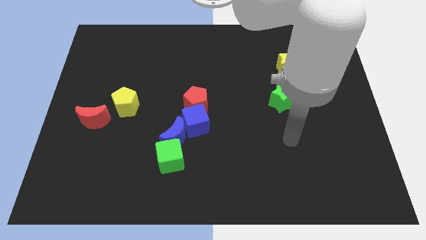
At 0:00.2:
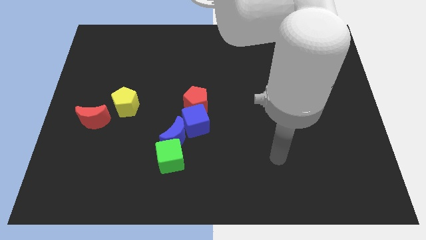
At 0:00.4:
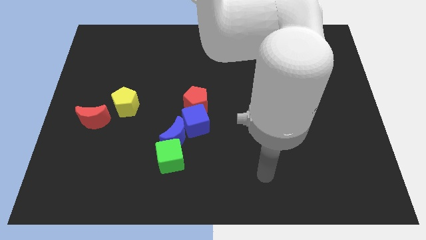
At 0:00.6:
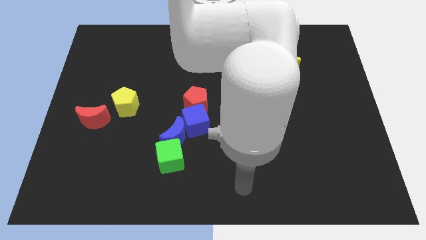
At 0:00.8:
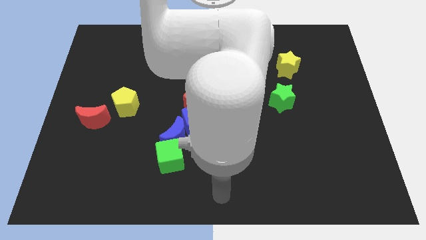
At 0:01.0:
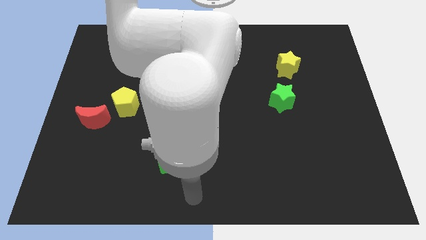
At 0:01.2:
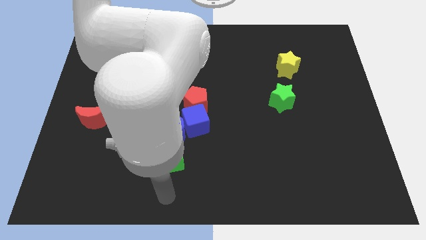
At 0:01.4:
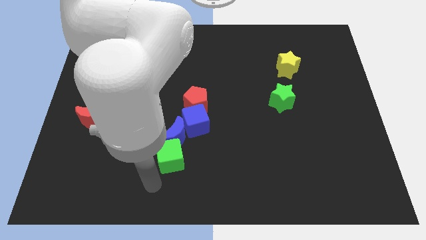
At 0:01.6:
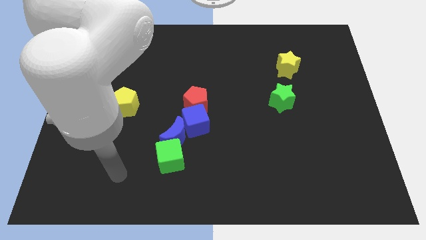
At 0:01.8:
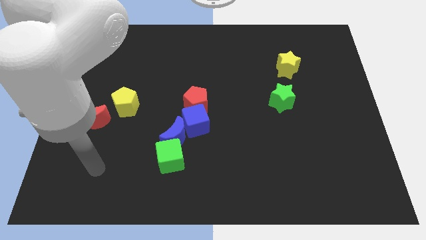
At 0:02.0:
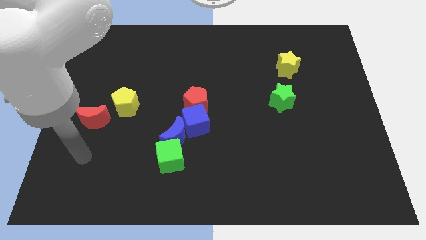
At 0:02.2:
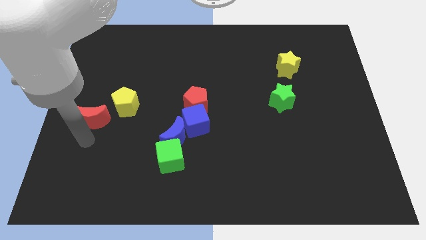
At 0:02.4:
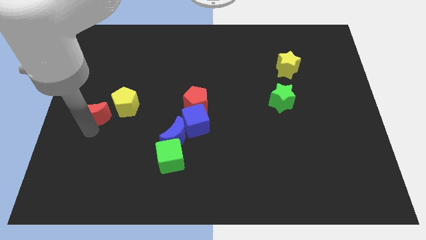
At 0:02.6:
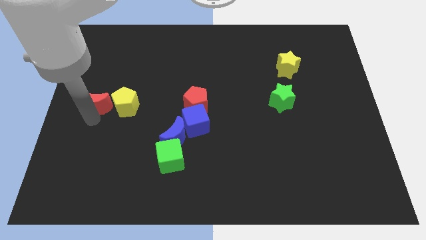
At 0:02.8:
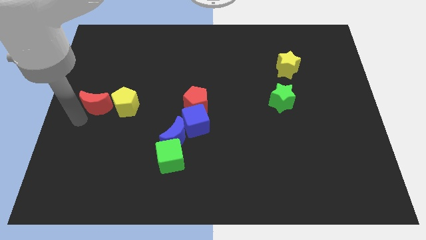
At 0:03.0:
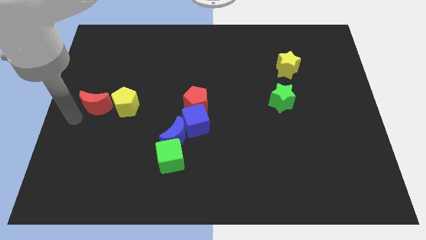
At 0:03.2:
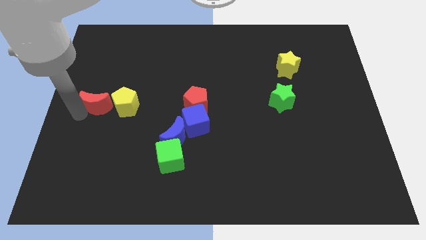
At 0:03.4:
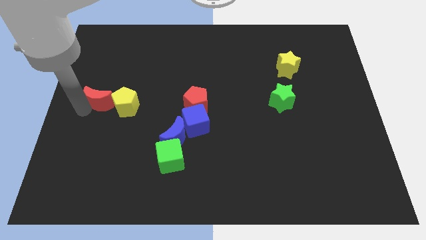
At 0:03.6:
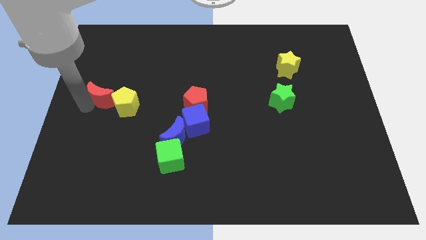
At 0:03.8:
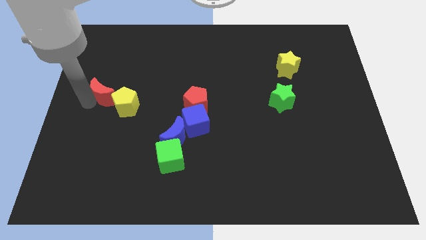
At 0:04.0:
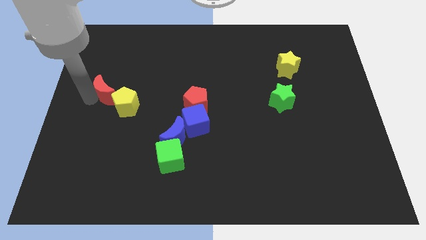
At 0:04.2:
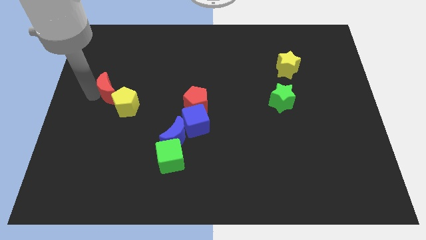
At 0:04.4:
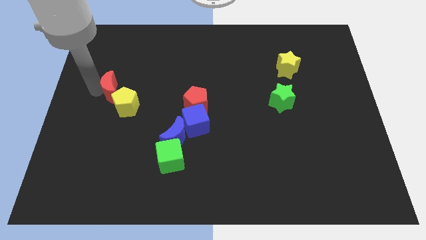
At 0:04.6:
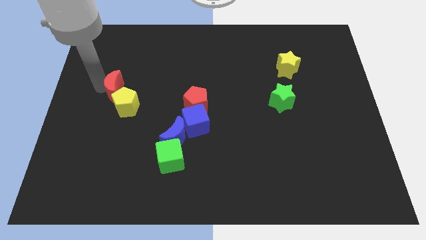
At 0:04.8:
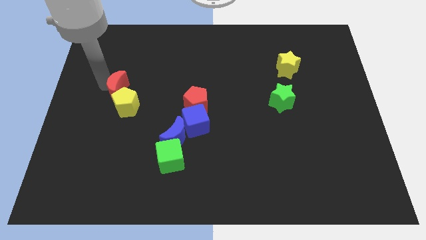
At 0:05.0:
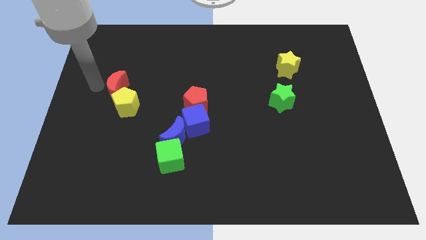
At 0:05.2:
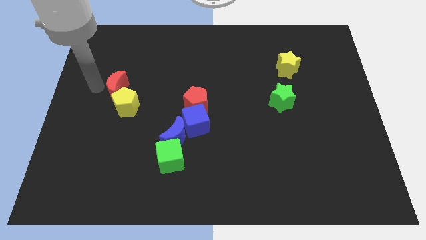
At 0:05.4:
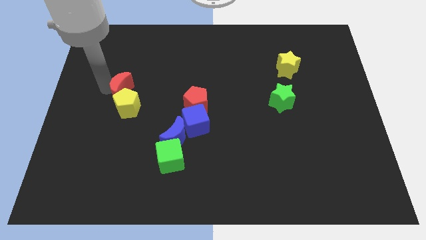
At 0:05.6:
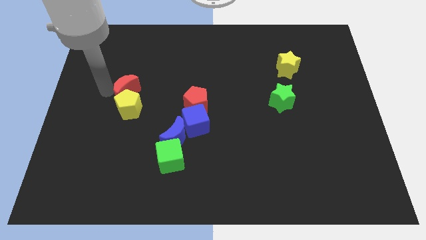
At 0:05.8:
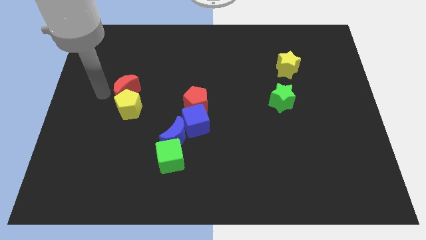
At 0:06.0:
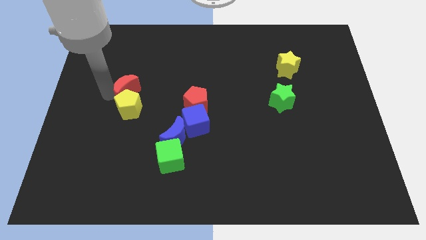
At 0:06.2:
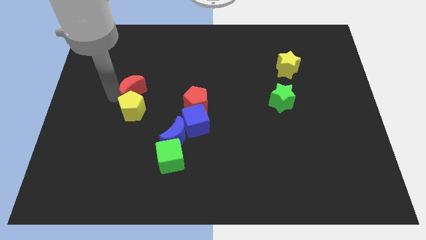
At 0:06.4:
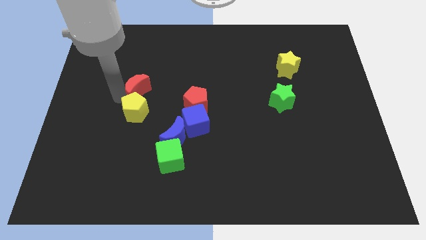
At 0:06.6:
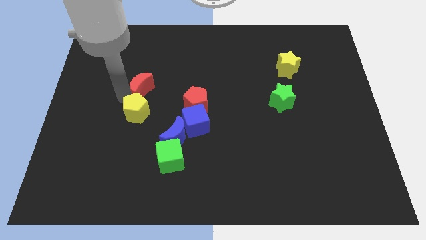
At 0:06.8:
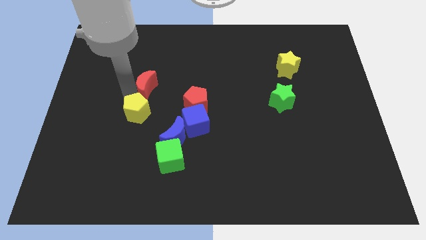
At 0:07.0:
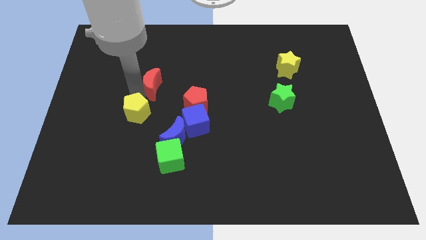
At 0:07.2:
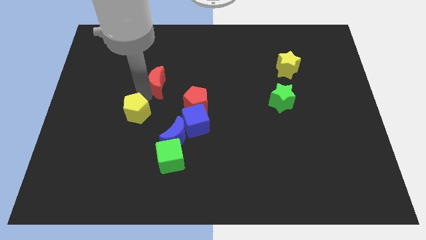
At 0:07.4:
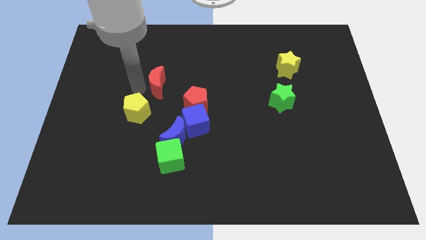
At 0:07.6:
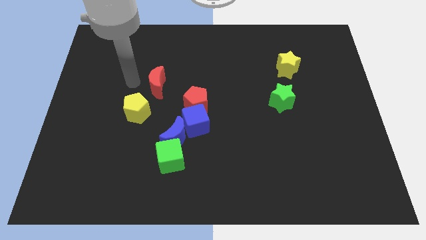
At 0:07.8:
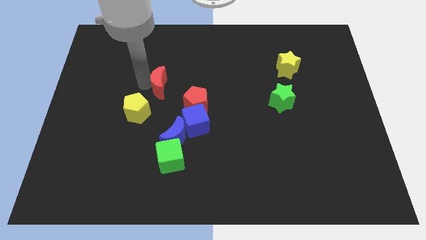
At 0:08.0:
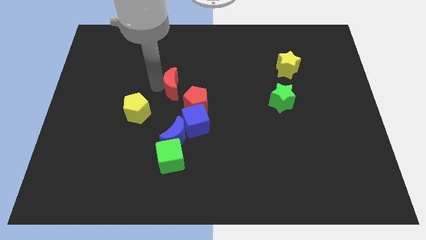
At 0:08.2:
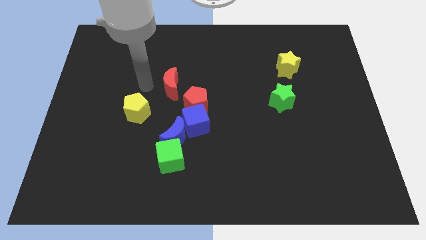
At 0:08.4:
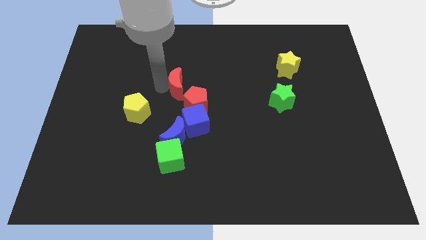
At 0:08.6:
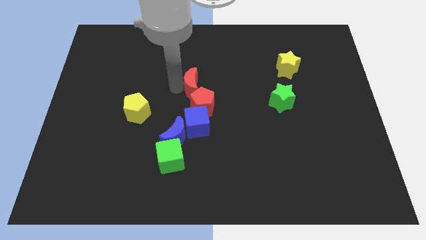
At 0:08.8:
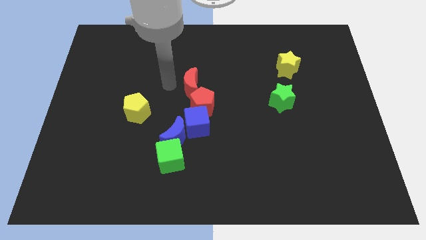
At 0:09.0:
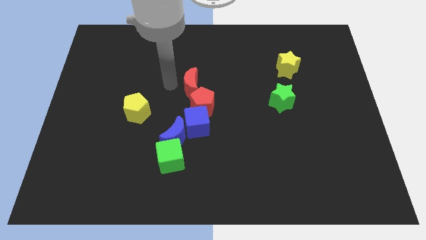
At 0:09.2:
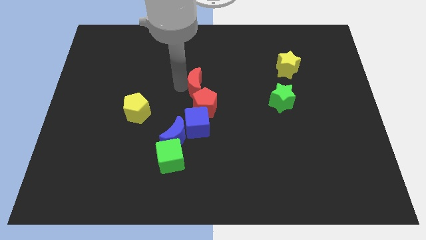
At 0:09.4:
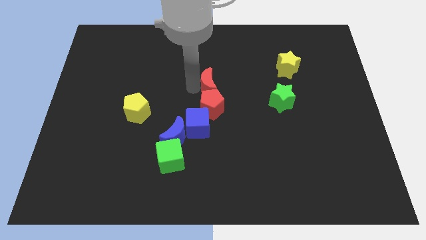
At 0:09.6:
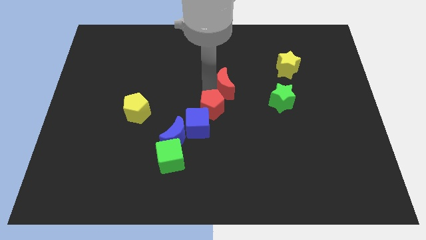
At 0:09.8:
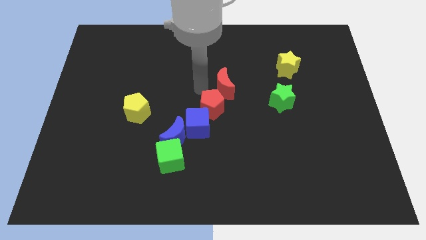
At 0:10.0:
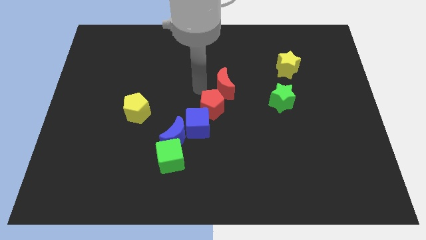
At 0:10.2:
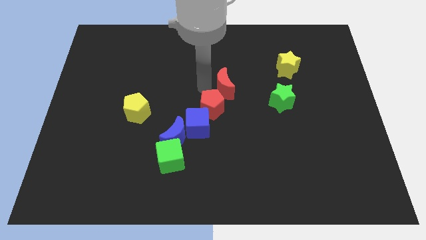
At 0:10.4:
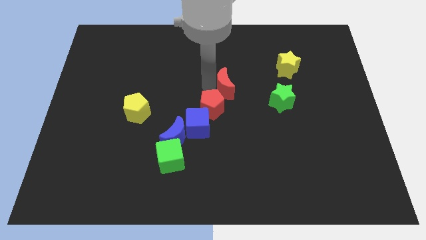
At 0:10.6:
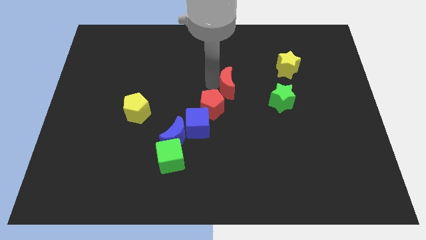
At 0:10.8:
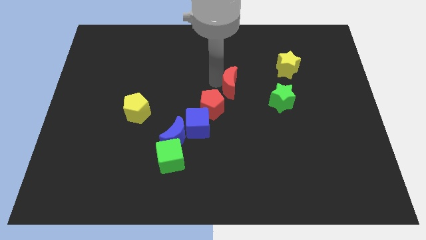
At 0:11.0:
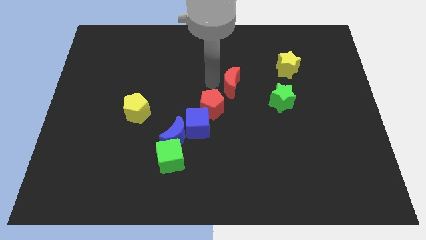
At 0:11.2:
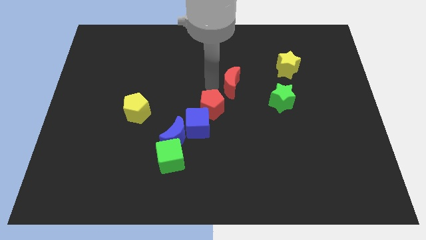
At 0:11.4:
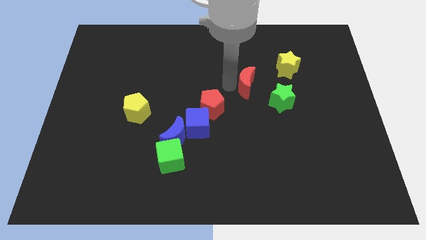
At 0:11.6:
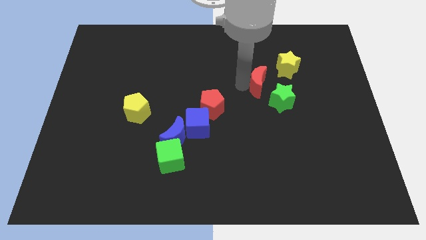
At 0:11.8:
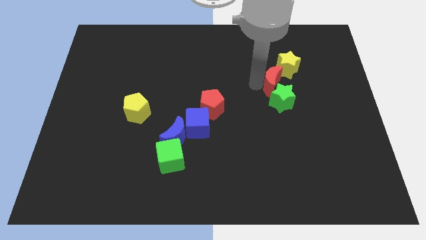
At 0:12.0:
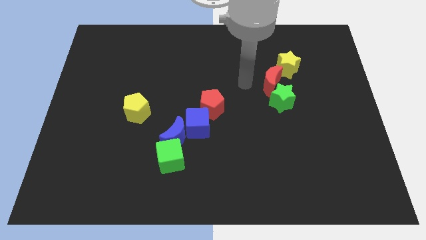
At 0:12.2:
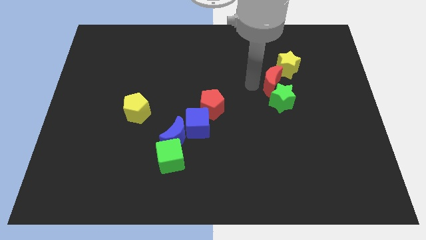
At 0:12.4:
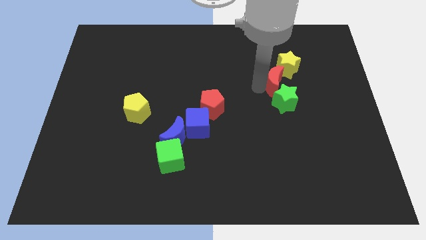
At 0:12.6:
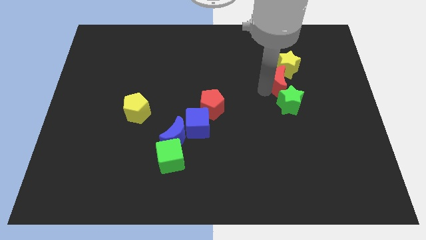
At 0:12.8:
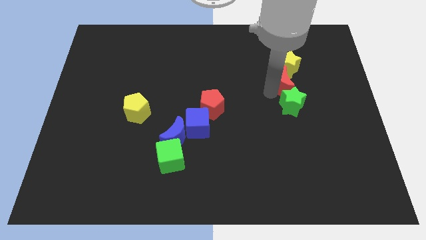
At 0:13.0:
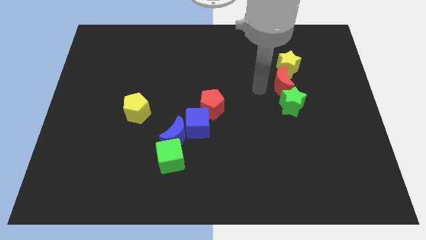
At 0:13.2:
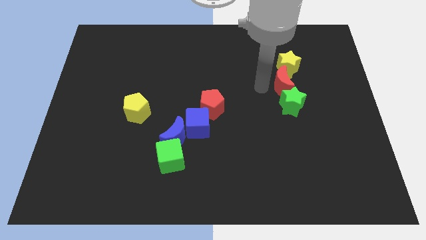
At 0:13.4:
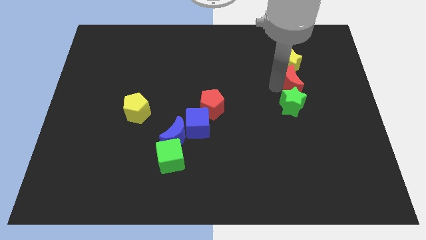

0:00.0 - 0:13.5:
put the red moon to the bottom right side of the yellow star

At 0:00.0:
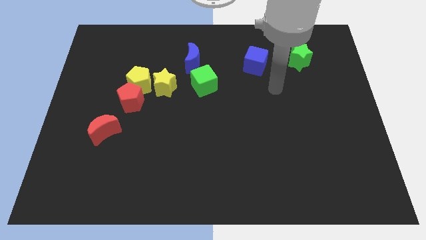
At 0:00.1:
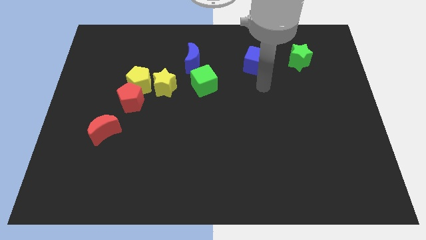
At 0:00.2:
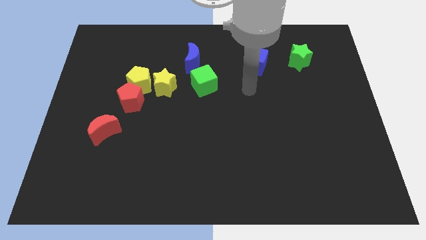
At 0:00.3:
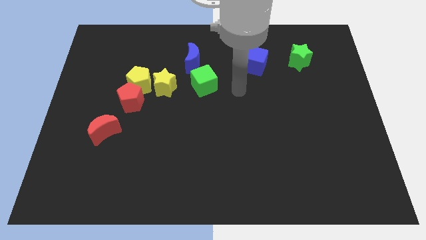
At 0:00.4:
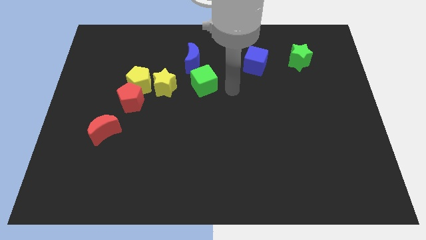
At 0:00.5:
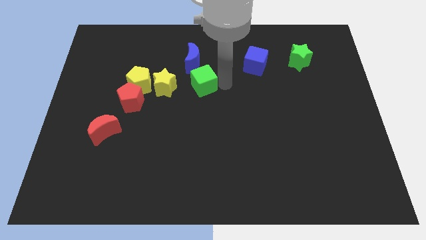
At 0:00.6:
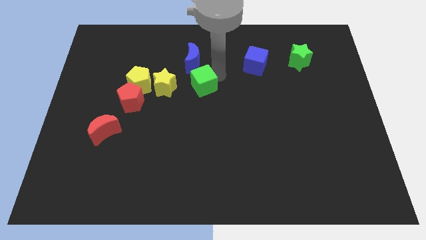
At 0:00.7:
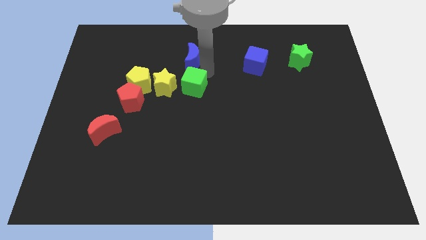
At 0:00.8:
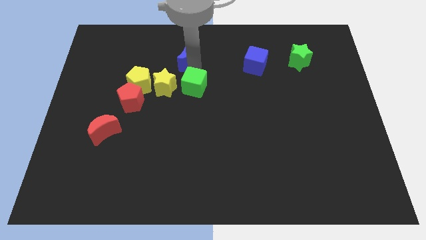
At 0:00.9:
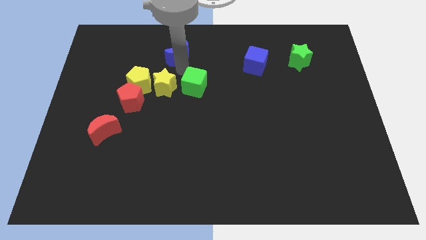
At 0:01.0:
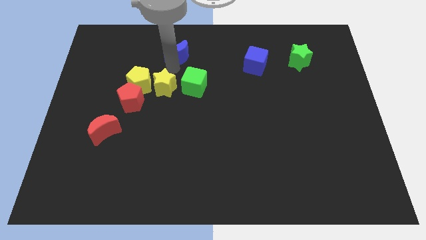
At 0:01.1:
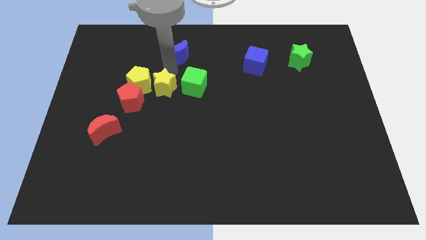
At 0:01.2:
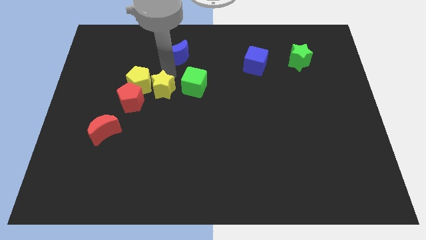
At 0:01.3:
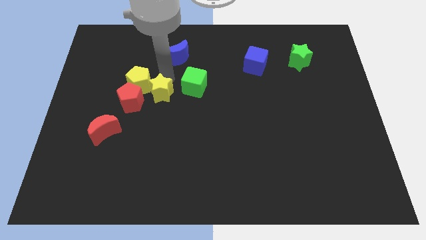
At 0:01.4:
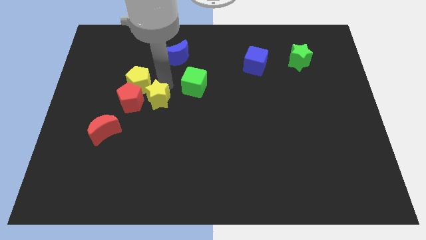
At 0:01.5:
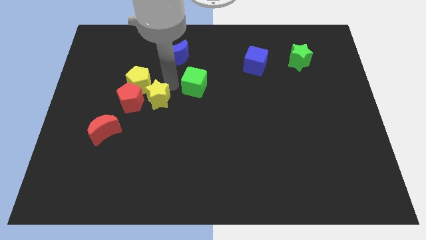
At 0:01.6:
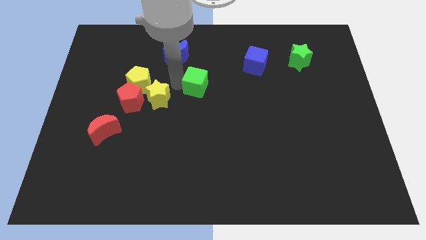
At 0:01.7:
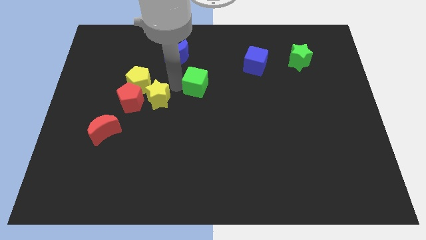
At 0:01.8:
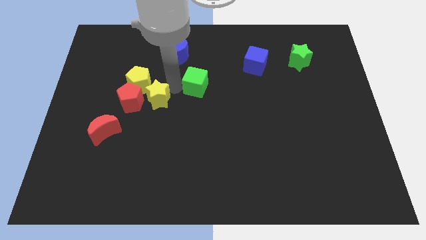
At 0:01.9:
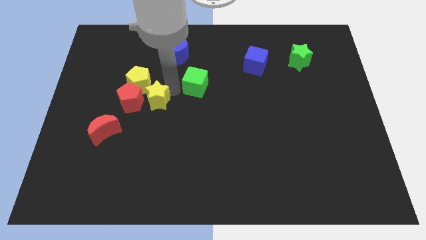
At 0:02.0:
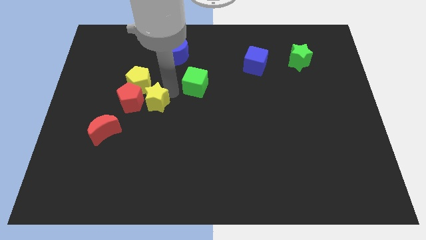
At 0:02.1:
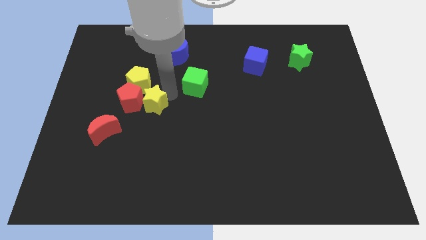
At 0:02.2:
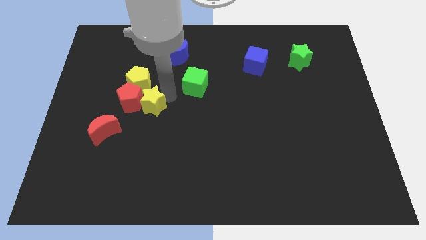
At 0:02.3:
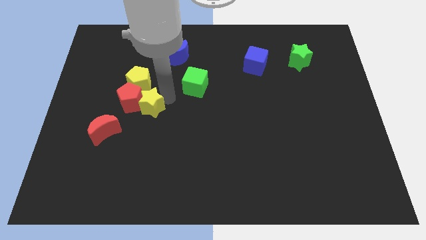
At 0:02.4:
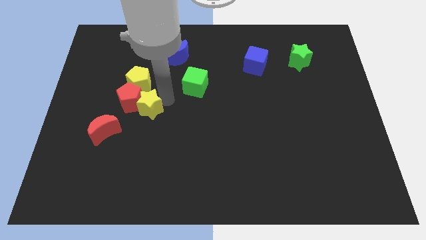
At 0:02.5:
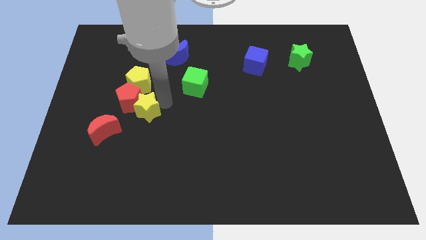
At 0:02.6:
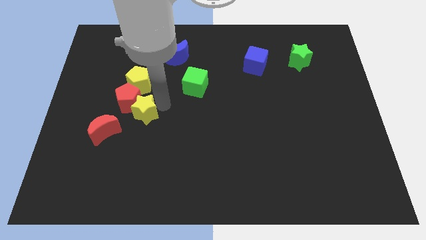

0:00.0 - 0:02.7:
slide the yellow star to the bottom of the red pentagon
